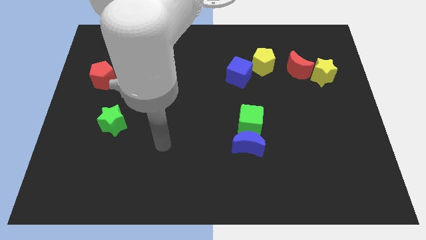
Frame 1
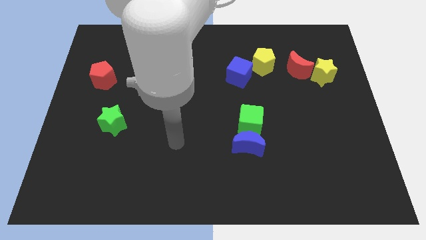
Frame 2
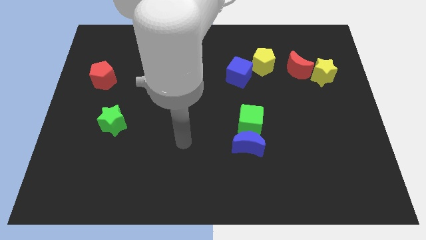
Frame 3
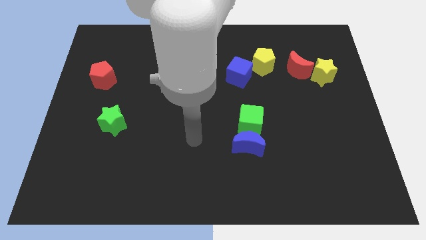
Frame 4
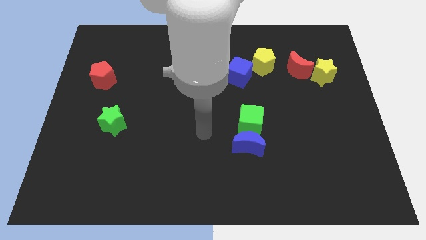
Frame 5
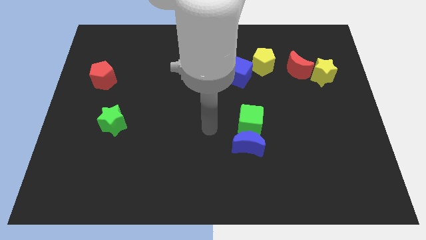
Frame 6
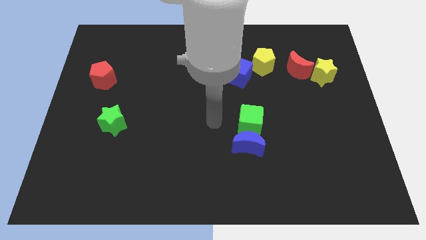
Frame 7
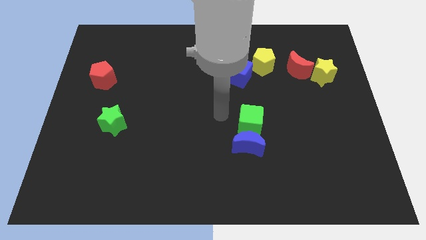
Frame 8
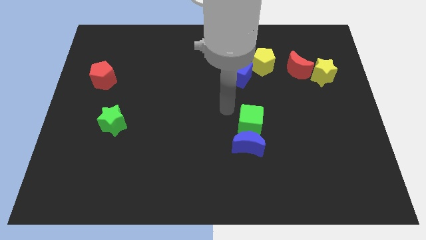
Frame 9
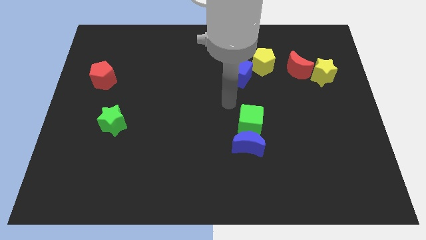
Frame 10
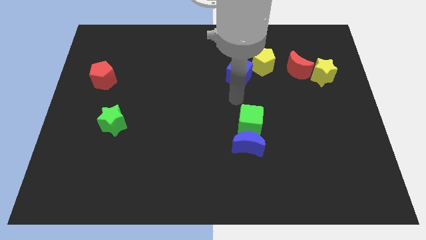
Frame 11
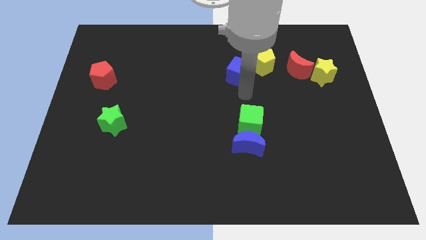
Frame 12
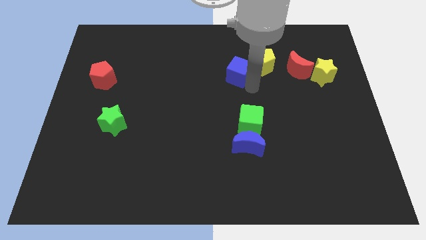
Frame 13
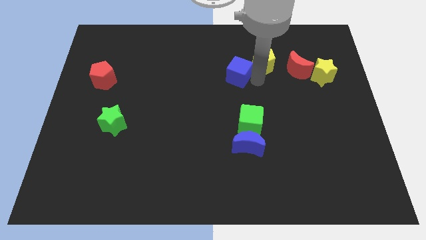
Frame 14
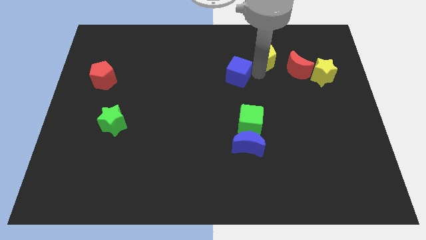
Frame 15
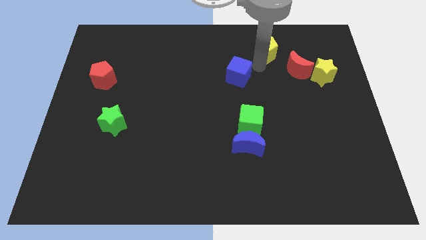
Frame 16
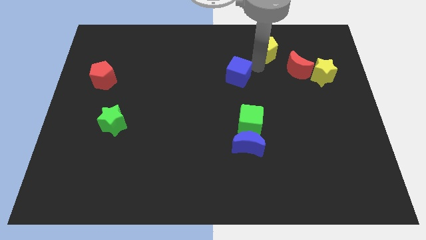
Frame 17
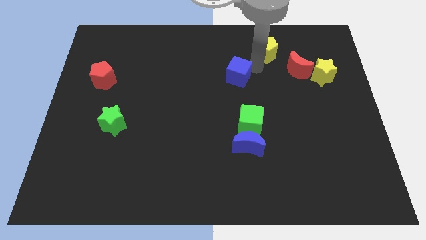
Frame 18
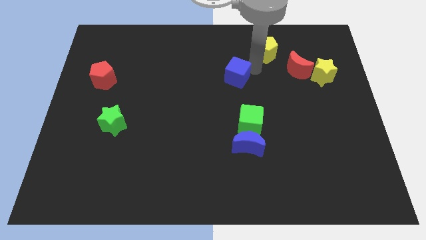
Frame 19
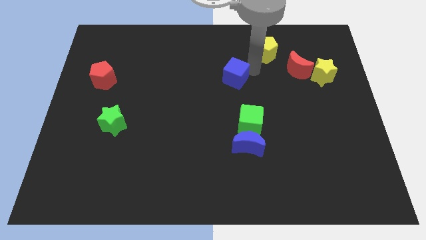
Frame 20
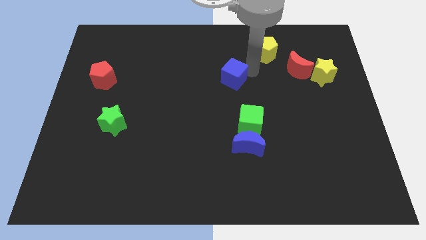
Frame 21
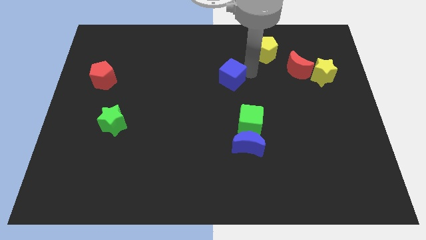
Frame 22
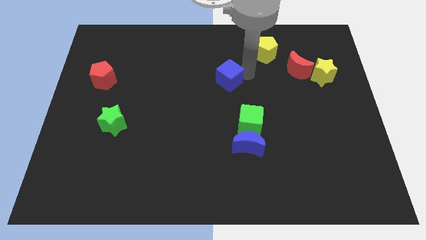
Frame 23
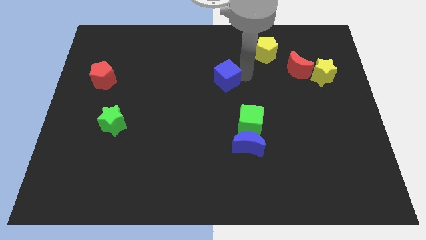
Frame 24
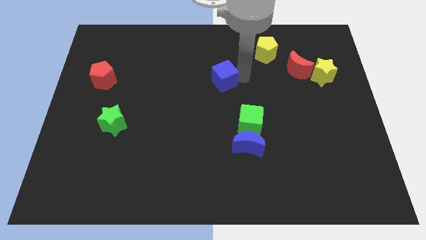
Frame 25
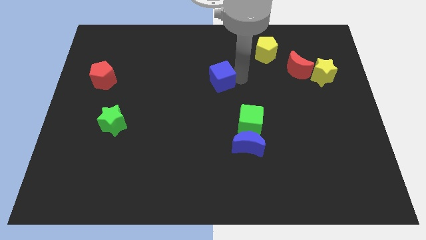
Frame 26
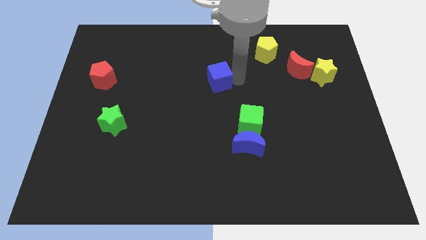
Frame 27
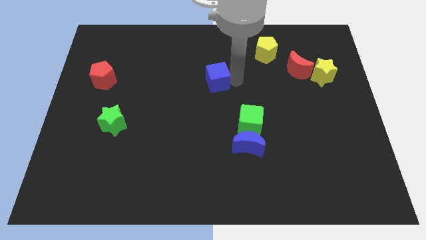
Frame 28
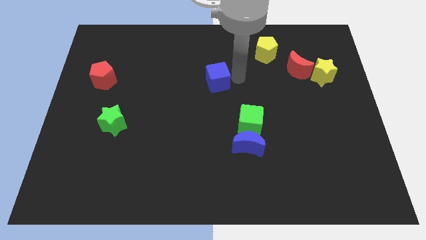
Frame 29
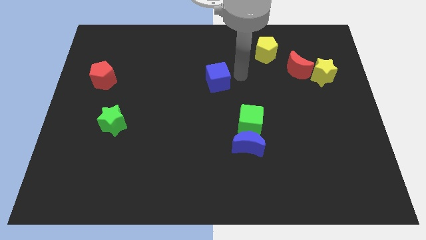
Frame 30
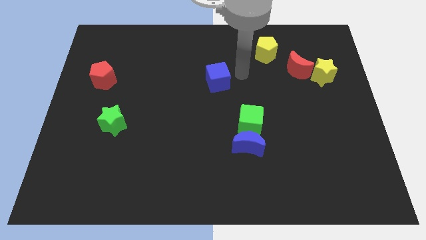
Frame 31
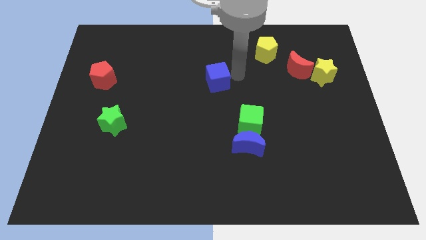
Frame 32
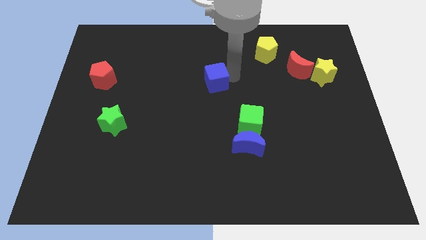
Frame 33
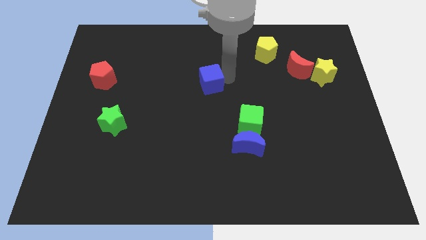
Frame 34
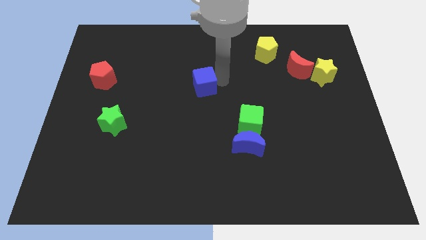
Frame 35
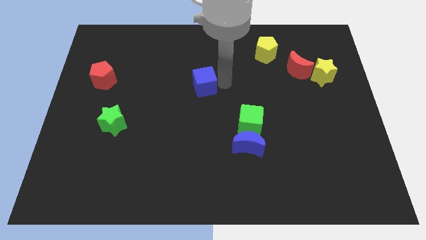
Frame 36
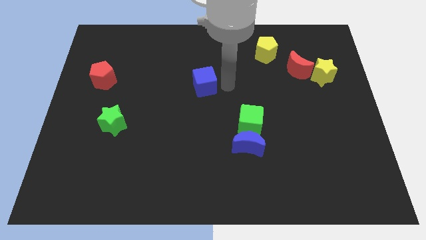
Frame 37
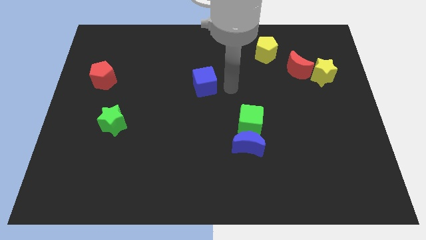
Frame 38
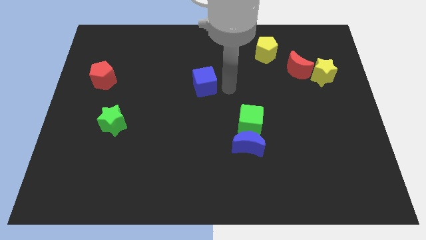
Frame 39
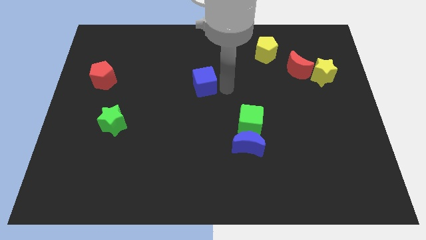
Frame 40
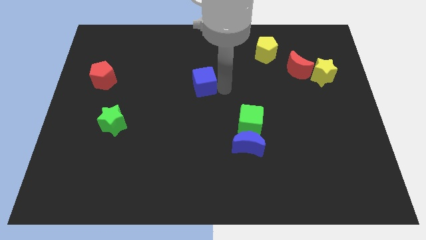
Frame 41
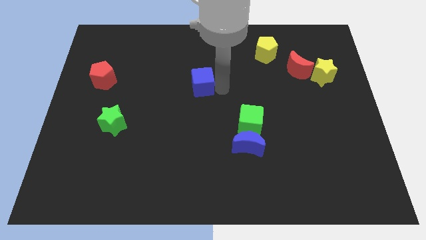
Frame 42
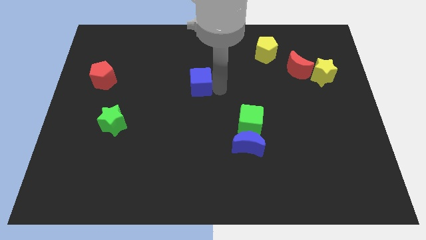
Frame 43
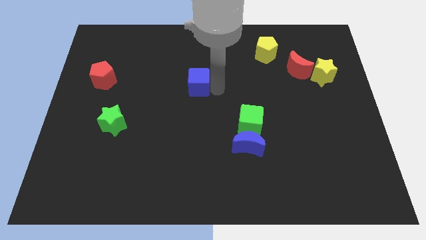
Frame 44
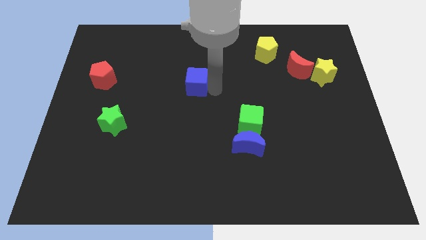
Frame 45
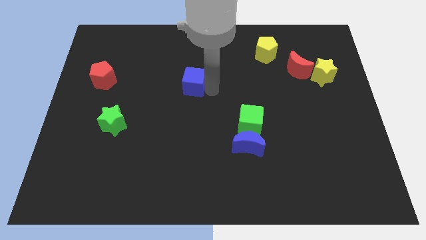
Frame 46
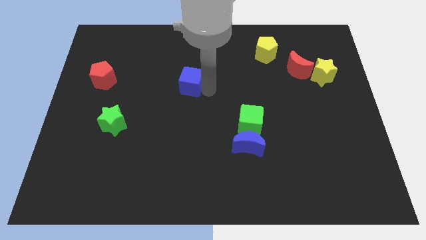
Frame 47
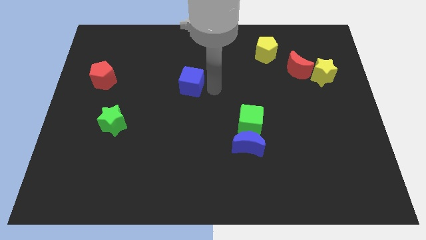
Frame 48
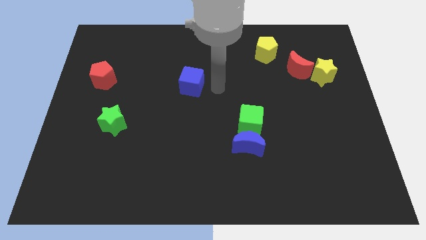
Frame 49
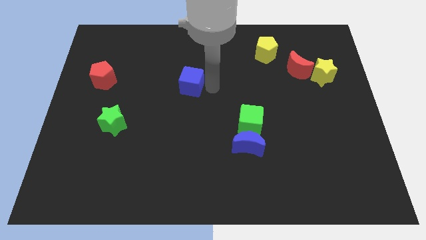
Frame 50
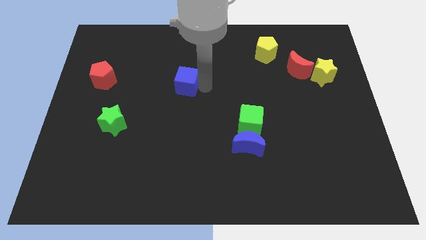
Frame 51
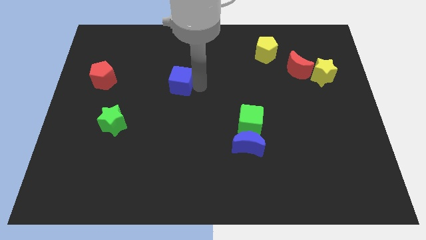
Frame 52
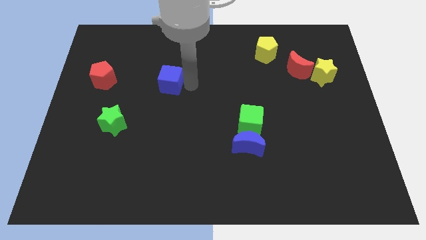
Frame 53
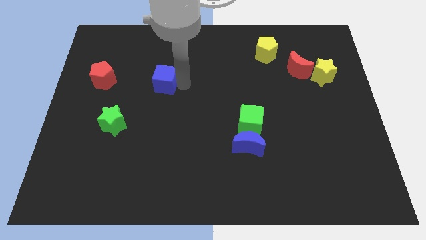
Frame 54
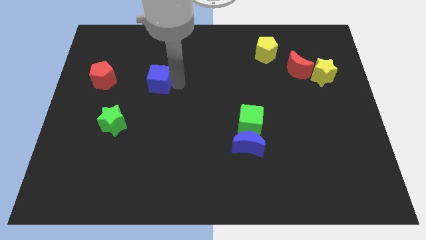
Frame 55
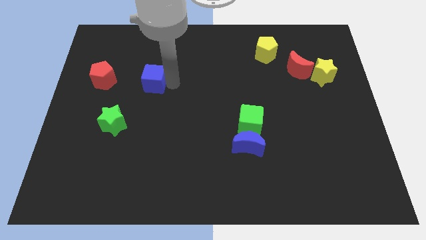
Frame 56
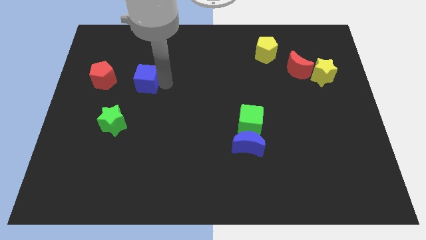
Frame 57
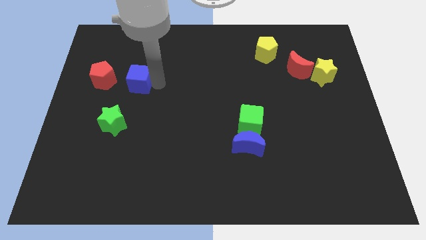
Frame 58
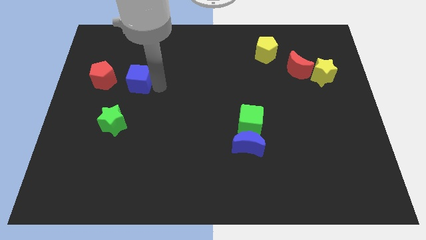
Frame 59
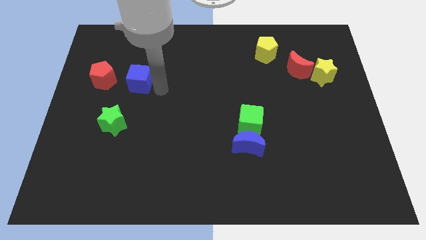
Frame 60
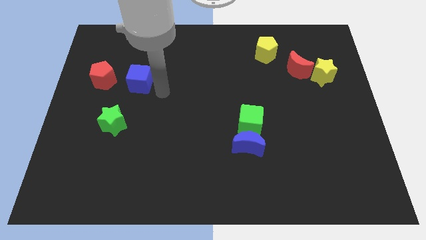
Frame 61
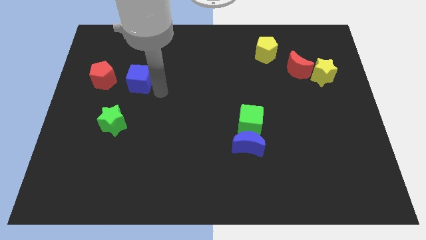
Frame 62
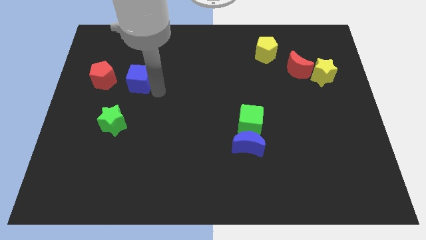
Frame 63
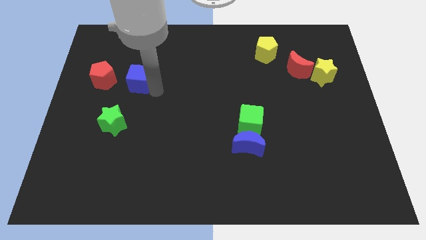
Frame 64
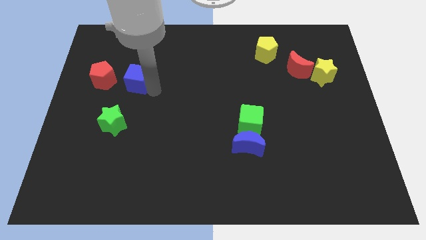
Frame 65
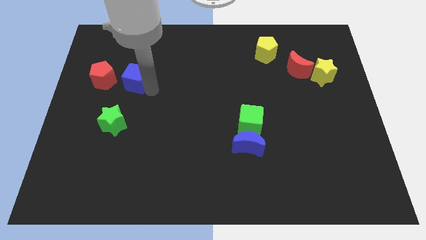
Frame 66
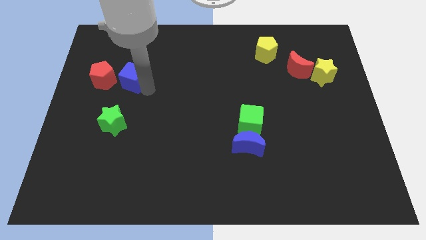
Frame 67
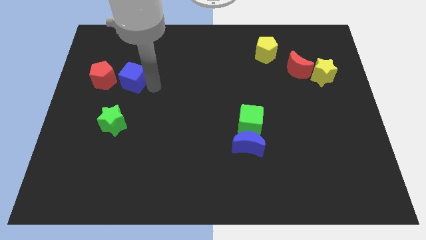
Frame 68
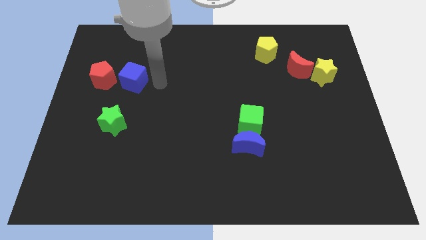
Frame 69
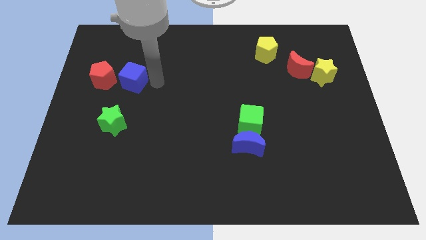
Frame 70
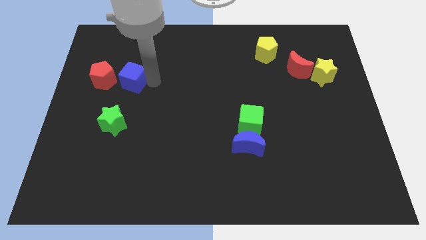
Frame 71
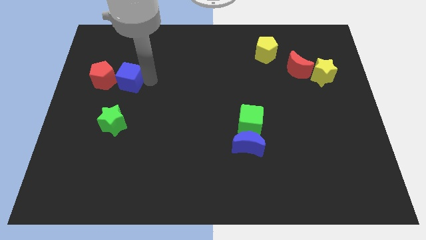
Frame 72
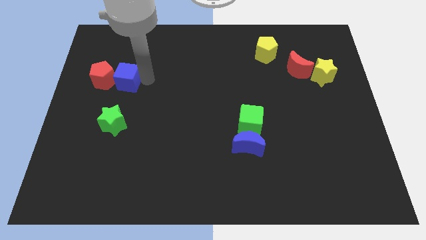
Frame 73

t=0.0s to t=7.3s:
slide the blue cube close to the red pentagon
